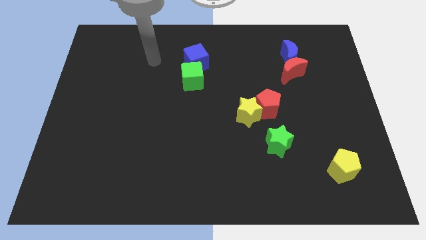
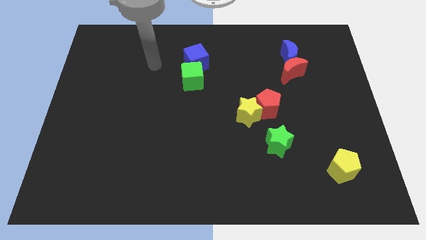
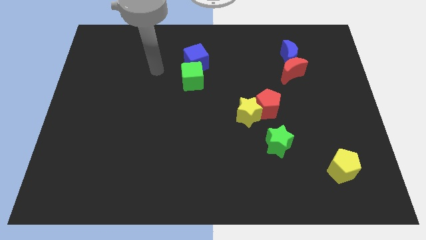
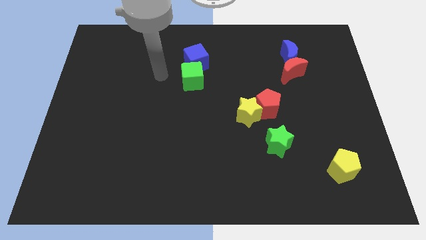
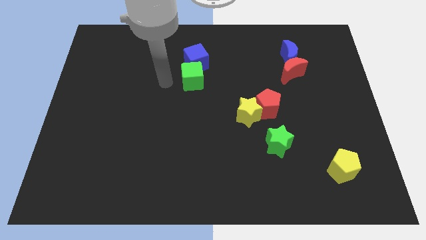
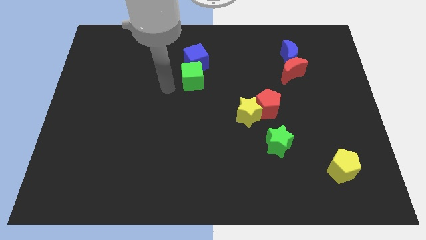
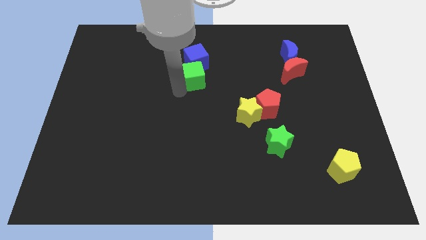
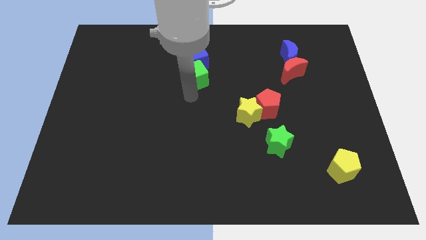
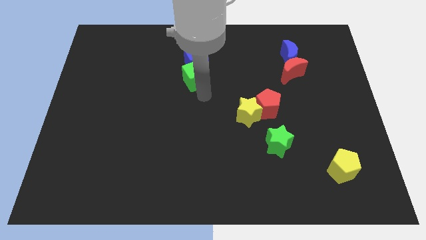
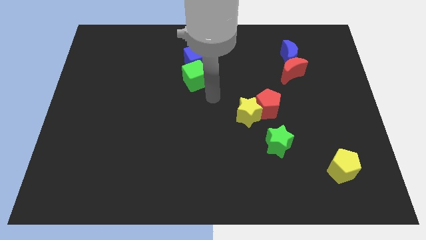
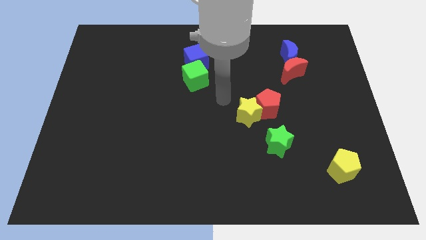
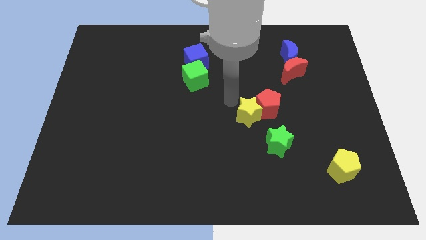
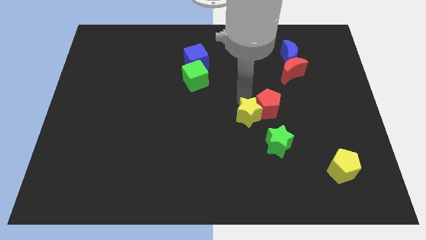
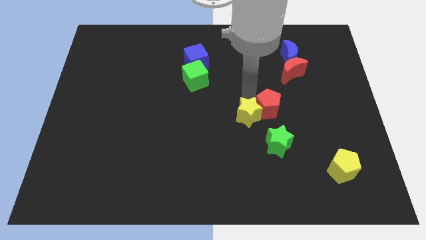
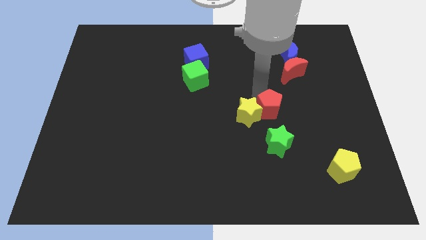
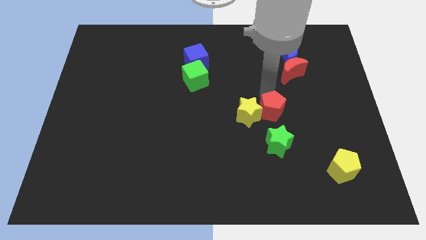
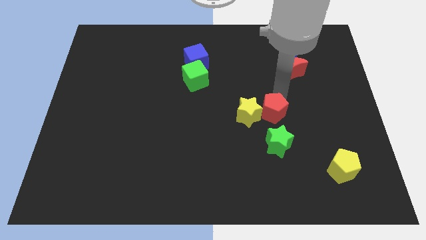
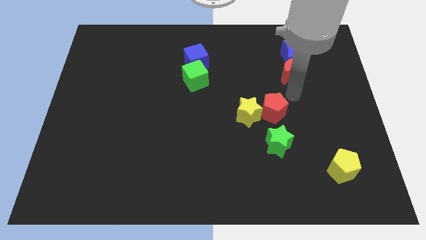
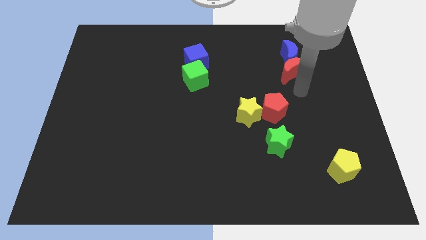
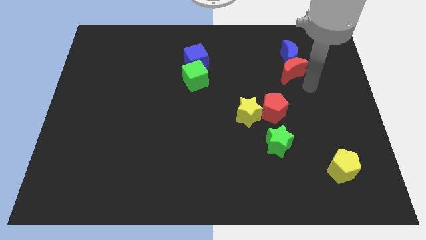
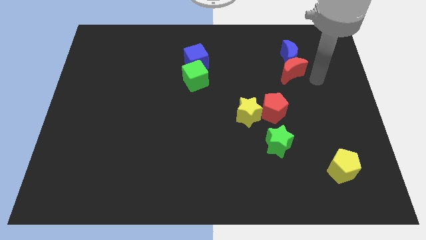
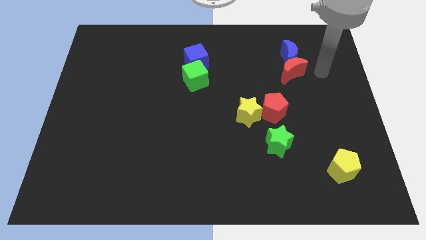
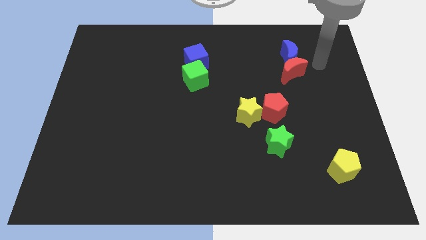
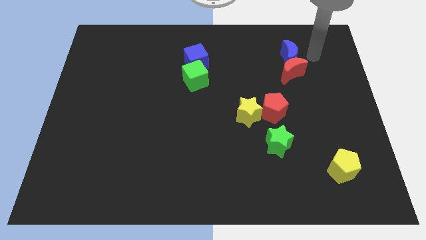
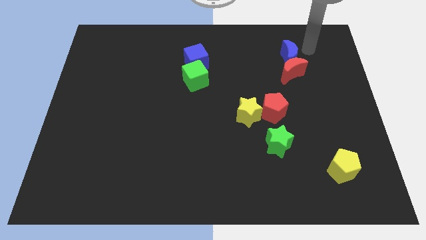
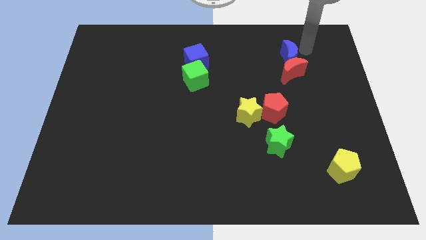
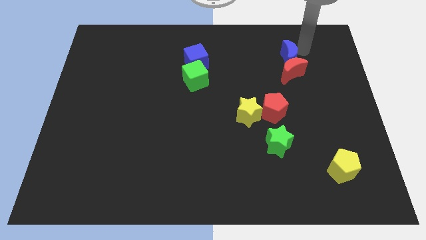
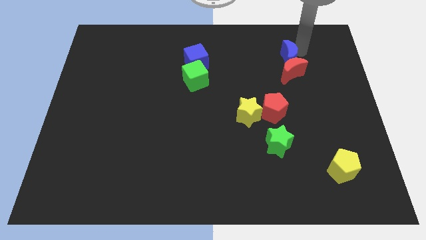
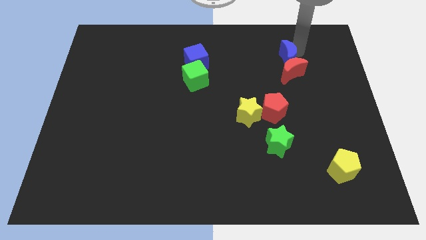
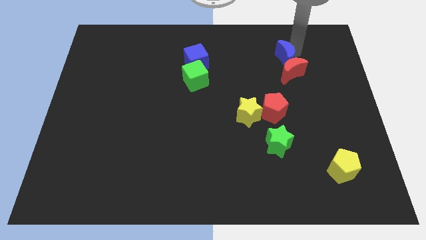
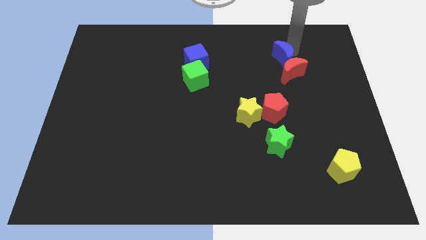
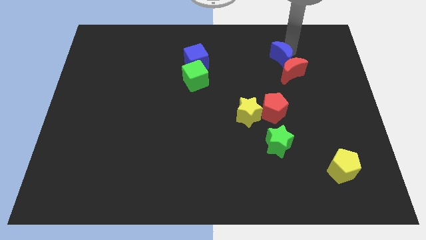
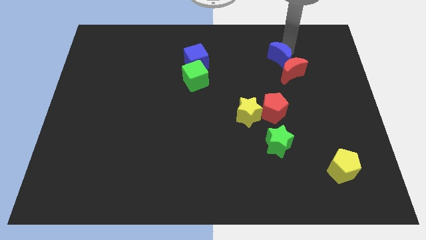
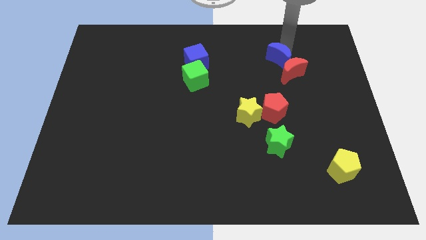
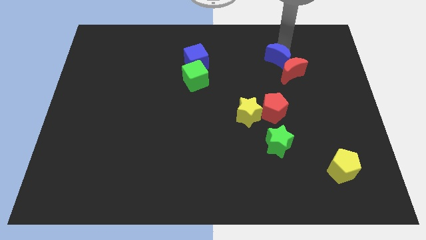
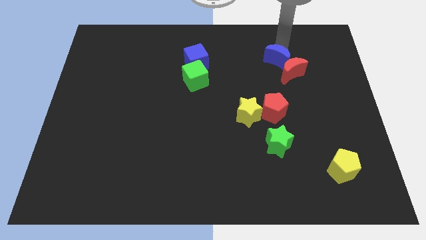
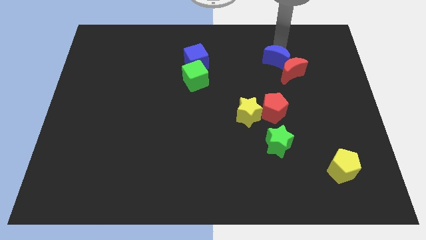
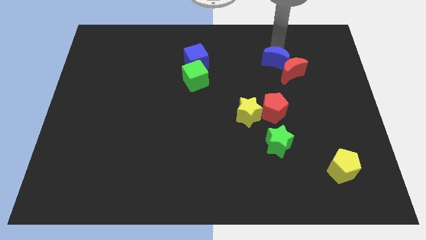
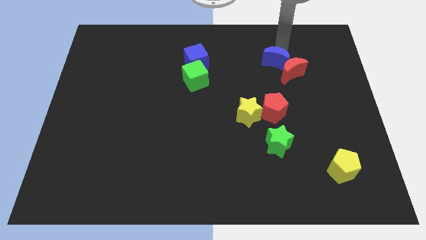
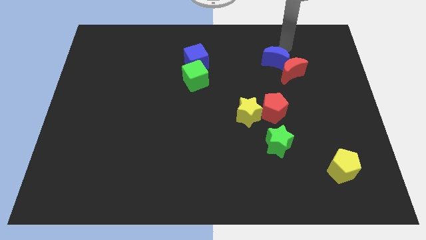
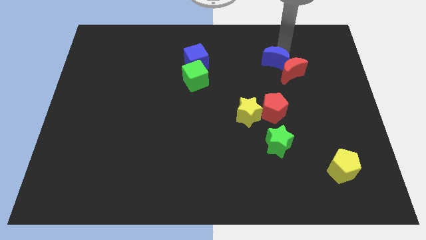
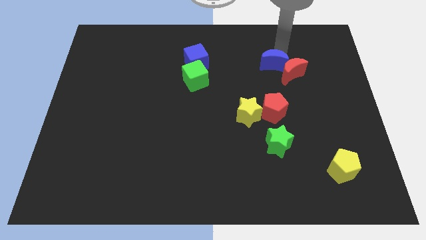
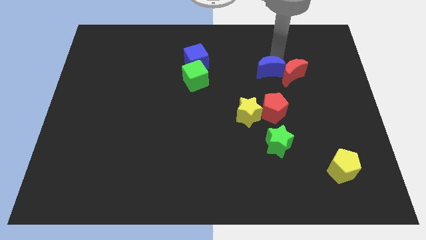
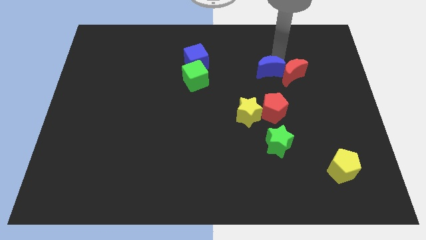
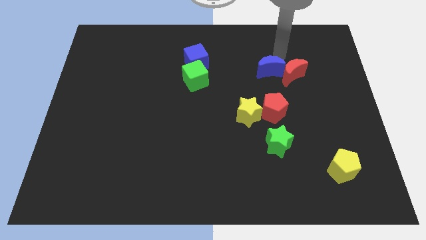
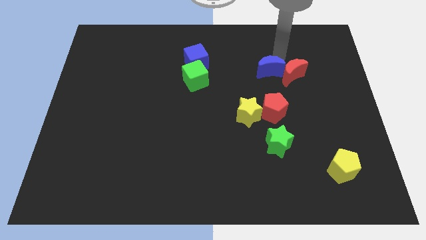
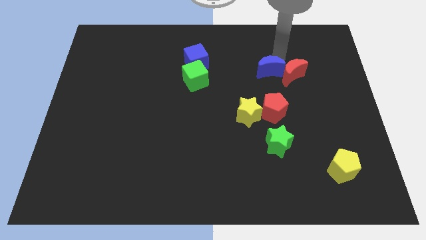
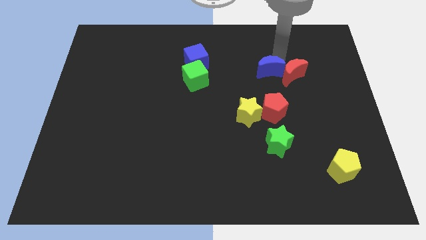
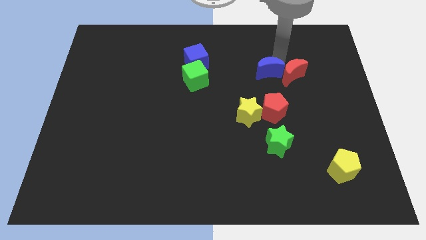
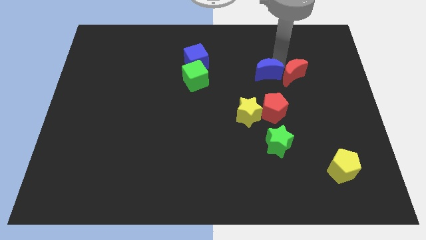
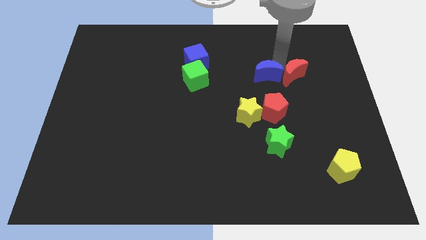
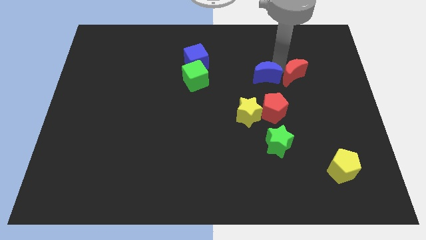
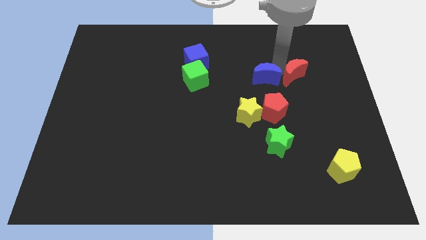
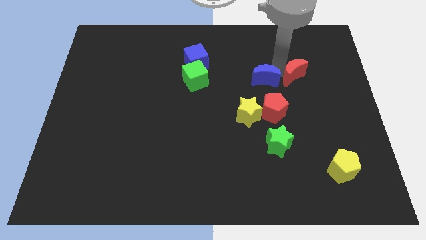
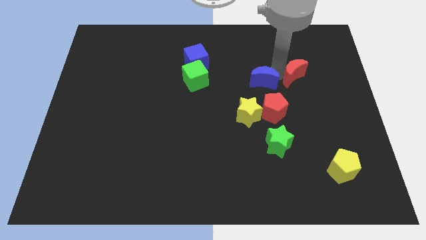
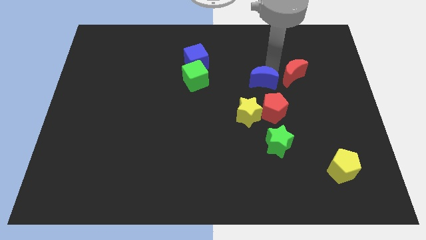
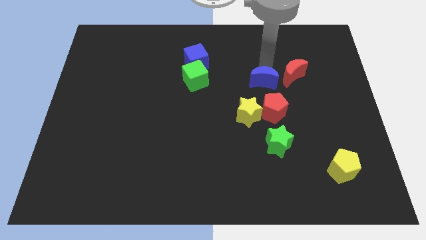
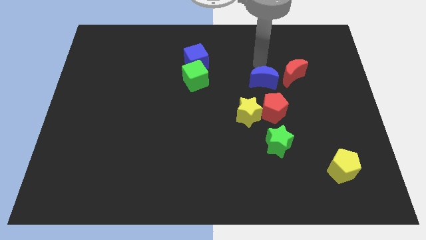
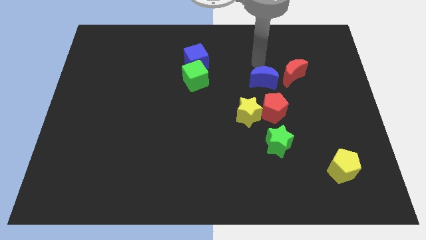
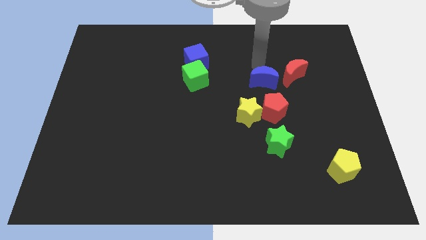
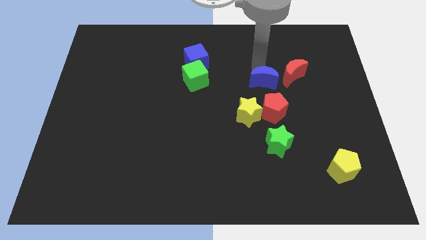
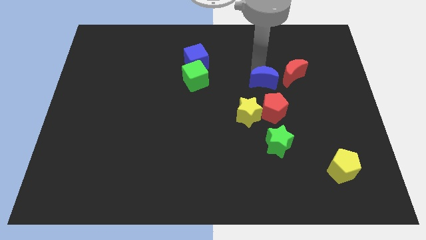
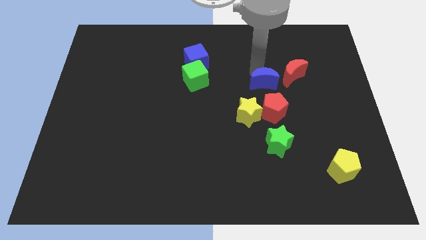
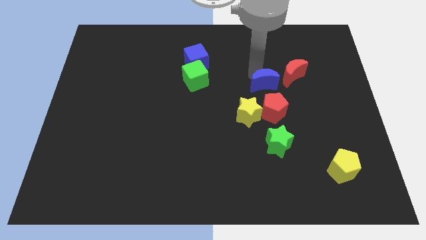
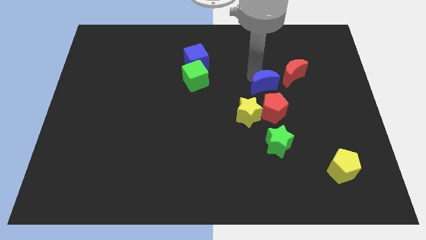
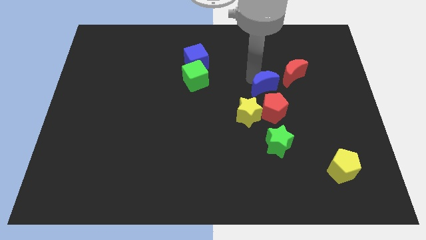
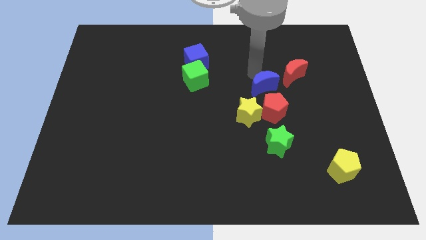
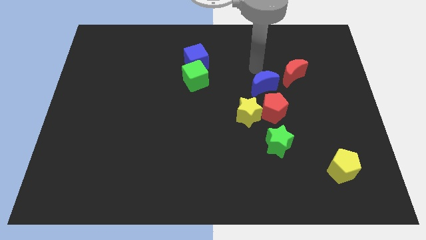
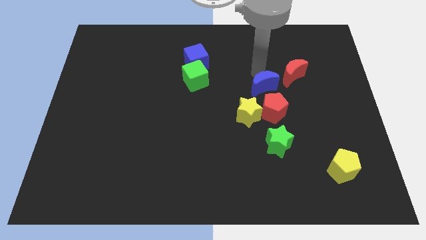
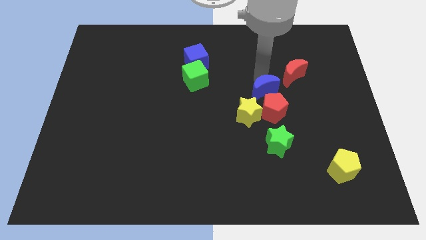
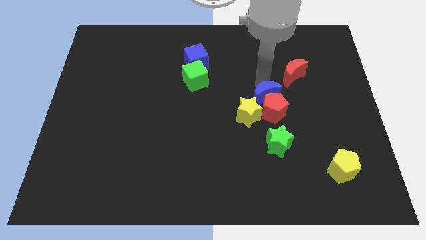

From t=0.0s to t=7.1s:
push the blue moon next to the red pentagon

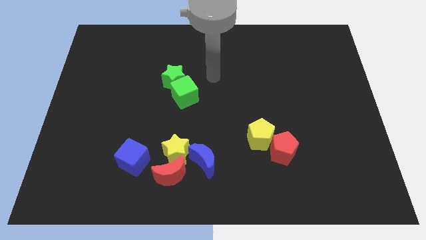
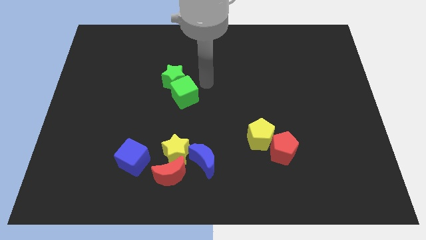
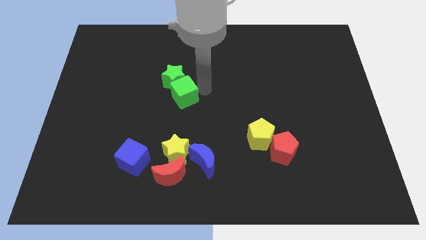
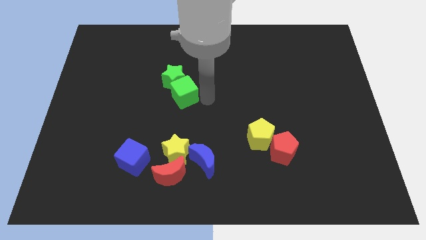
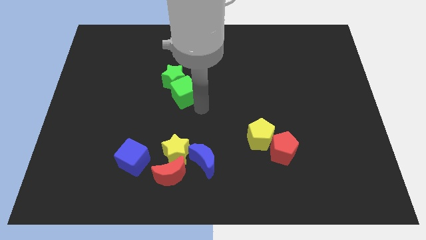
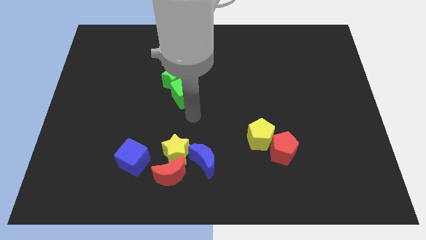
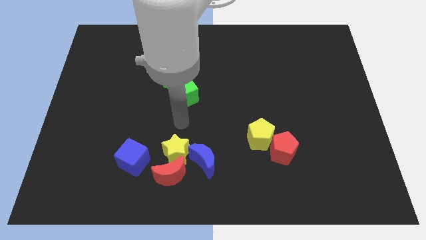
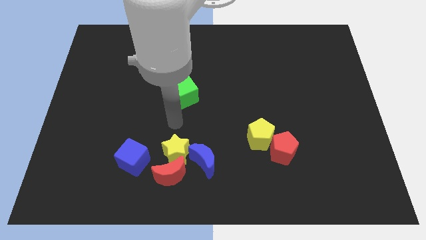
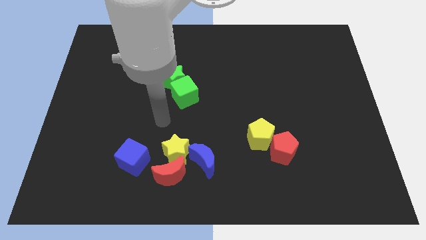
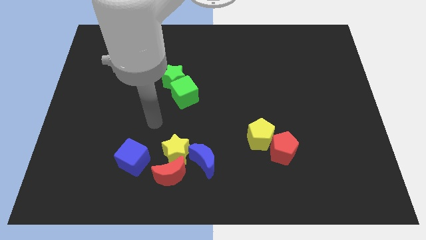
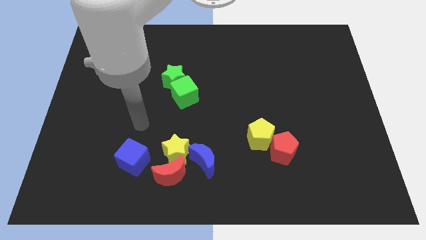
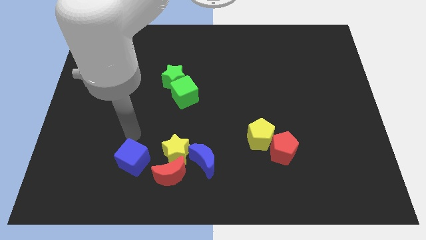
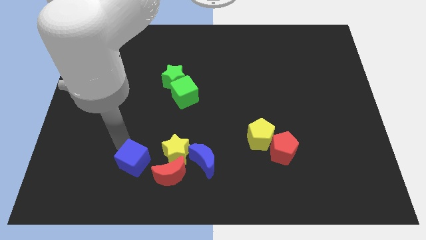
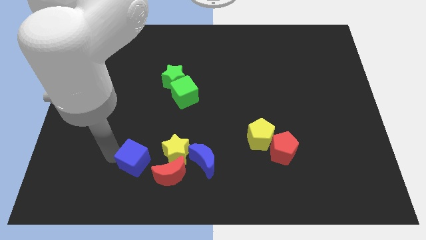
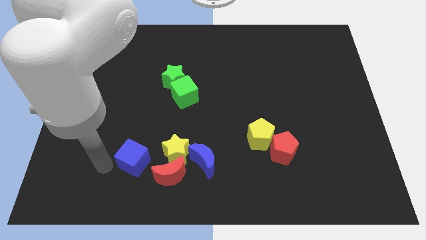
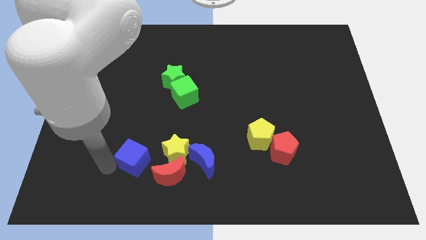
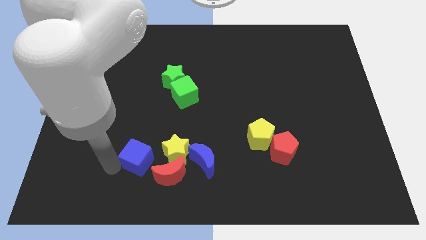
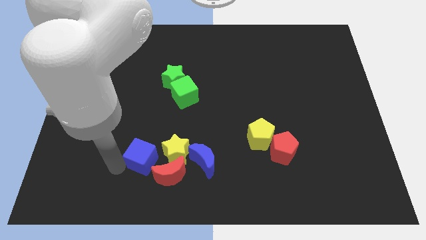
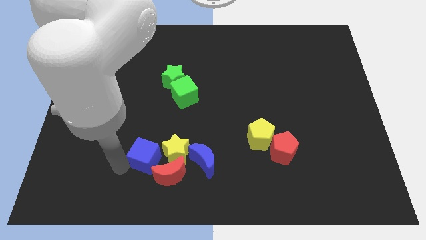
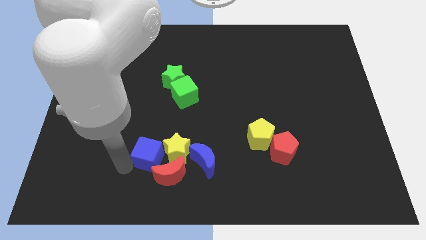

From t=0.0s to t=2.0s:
push the blue cube next to the yellow star
